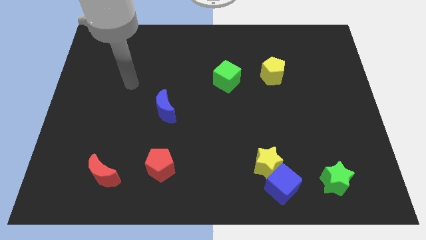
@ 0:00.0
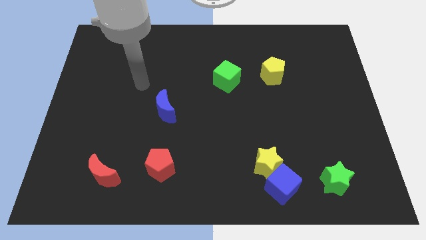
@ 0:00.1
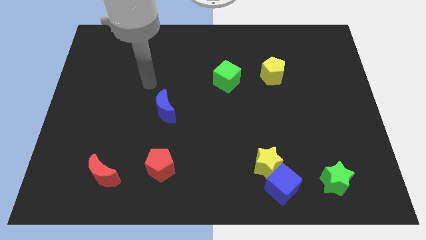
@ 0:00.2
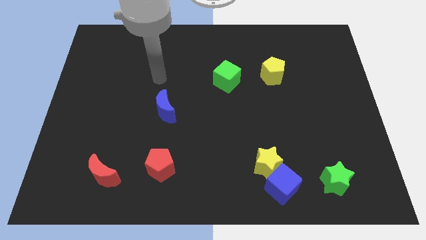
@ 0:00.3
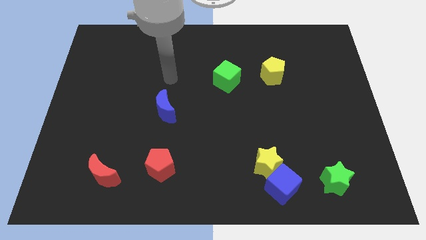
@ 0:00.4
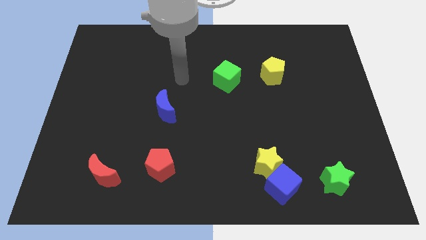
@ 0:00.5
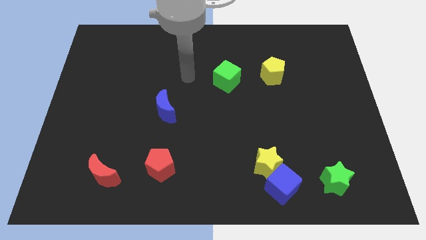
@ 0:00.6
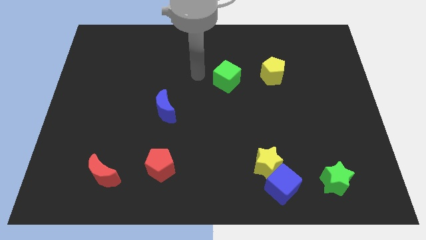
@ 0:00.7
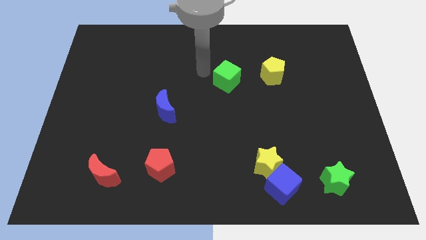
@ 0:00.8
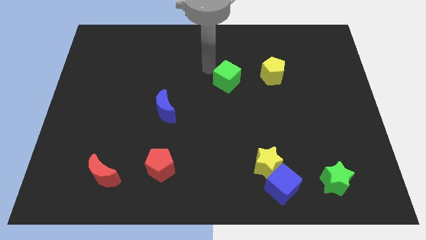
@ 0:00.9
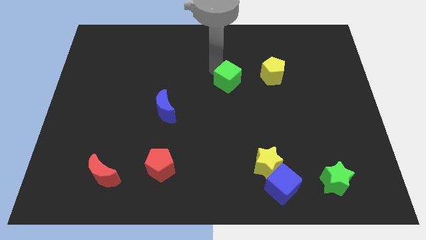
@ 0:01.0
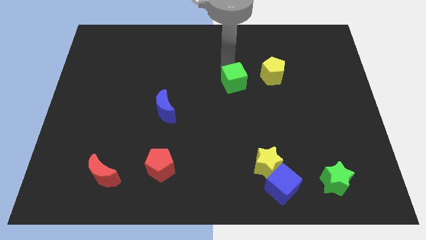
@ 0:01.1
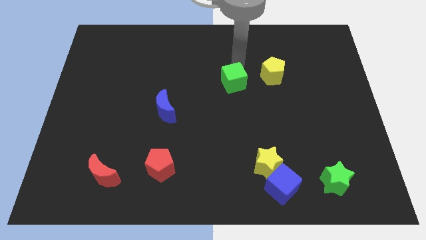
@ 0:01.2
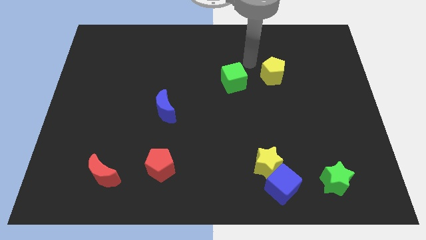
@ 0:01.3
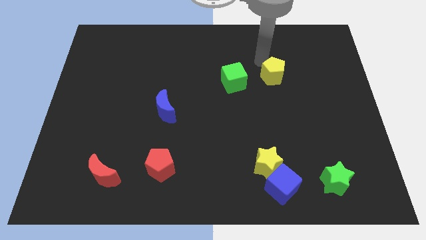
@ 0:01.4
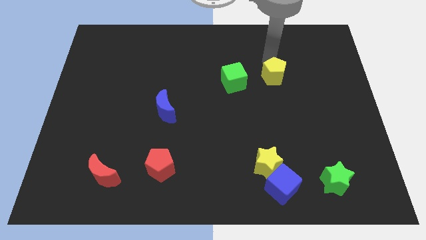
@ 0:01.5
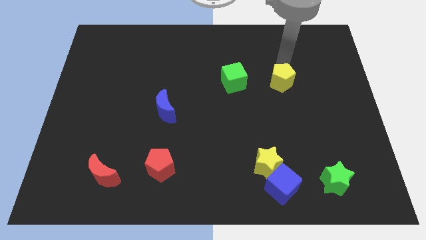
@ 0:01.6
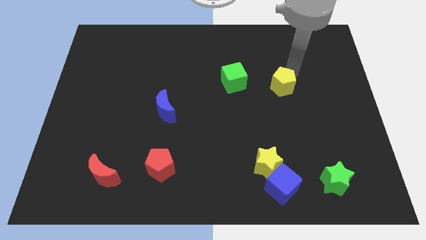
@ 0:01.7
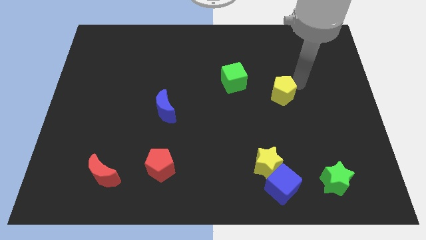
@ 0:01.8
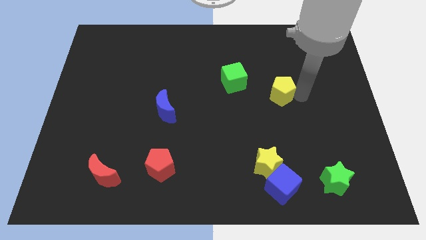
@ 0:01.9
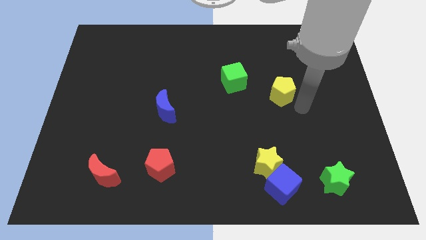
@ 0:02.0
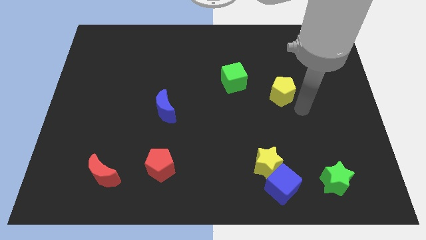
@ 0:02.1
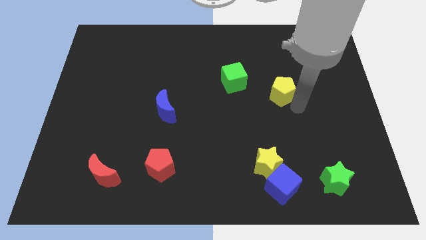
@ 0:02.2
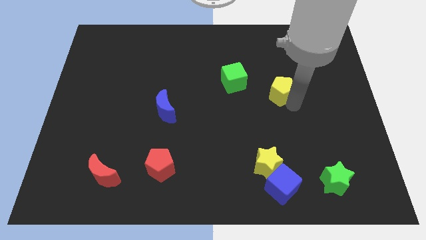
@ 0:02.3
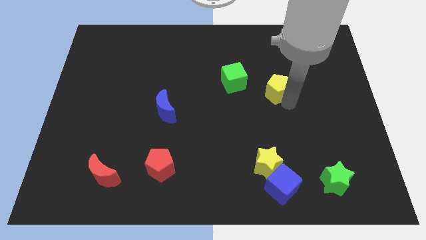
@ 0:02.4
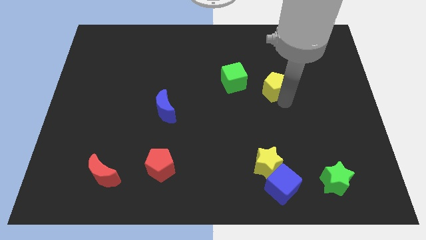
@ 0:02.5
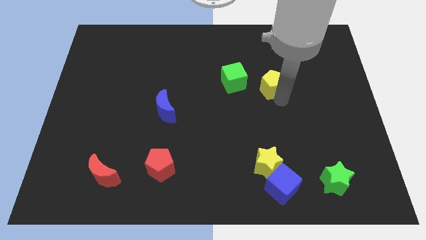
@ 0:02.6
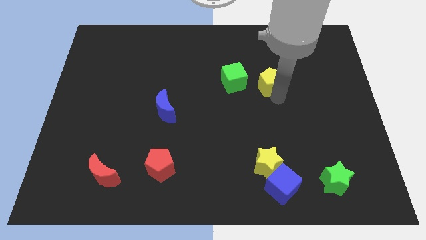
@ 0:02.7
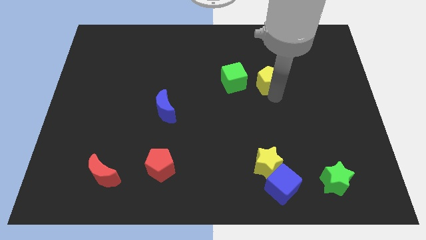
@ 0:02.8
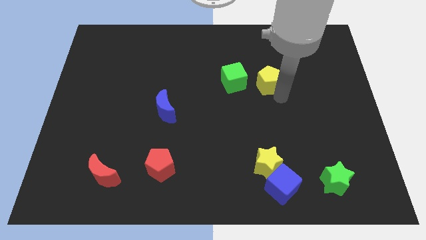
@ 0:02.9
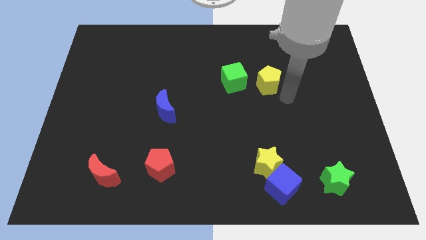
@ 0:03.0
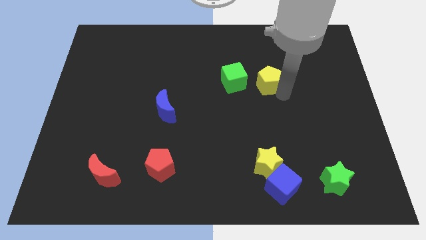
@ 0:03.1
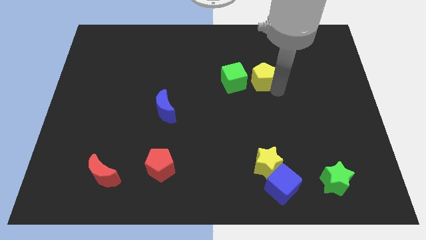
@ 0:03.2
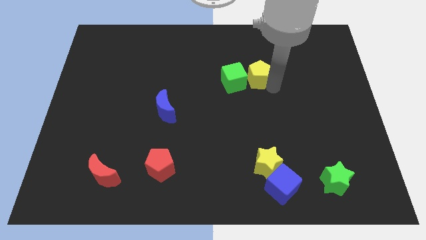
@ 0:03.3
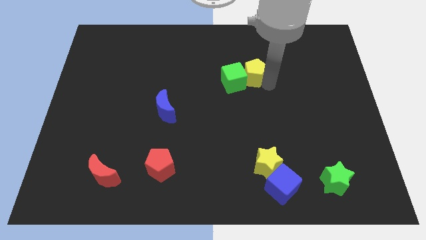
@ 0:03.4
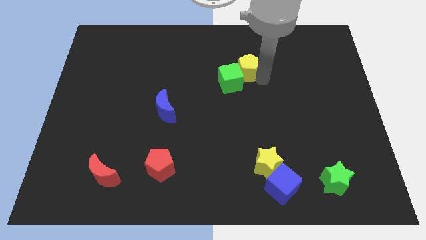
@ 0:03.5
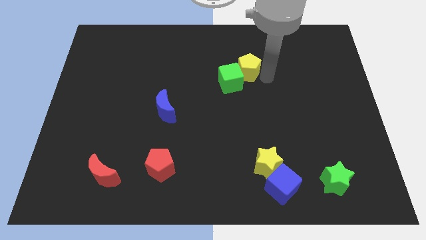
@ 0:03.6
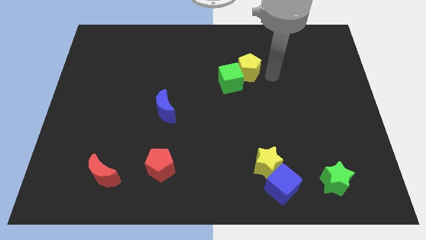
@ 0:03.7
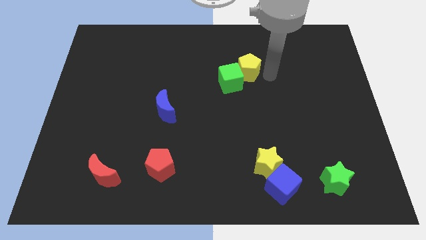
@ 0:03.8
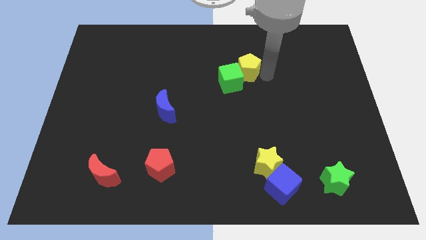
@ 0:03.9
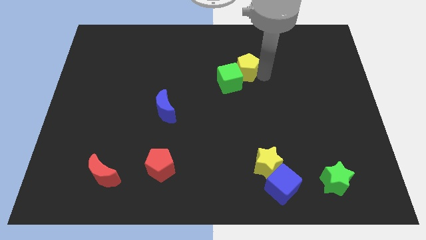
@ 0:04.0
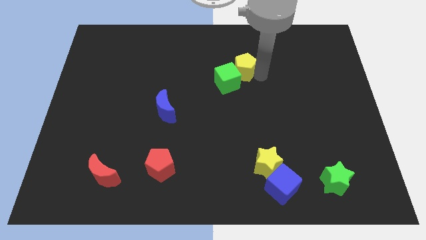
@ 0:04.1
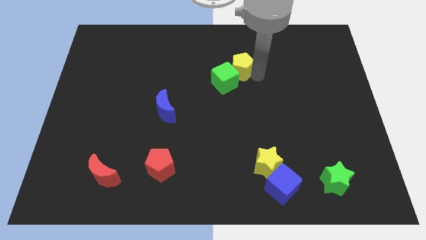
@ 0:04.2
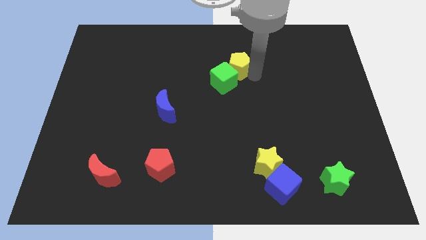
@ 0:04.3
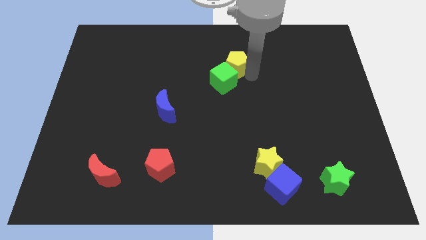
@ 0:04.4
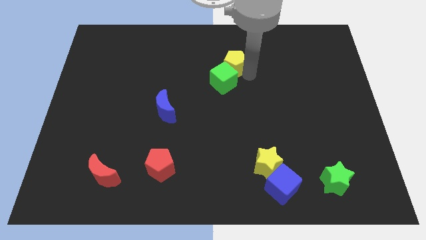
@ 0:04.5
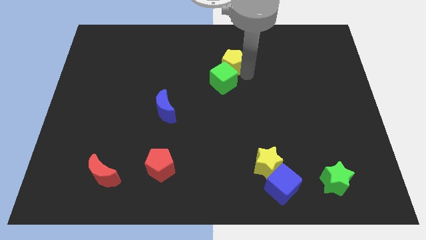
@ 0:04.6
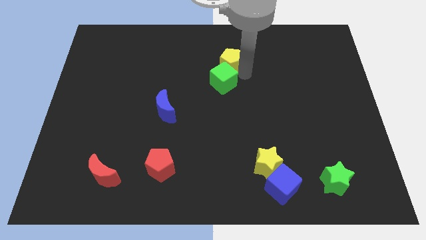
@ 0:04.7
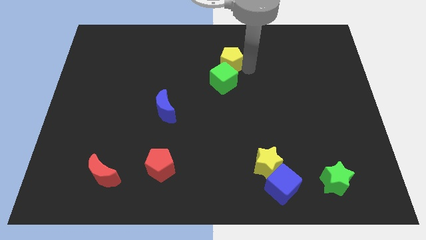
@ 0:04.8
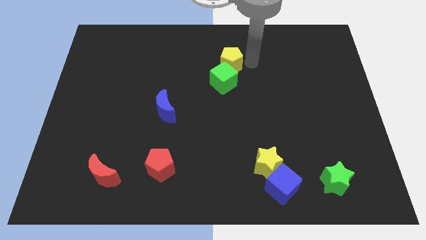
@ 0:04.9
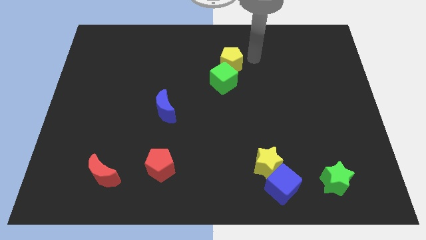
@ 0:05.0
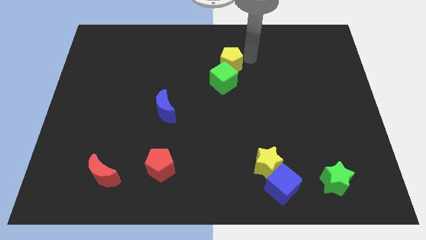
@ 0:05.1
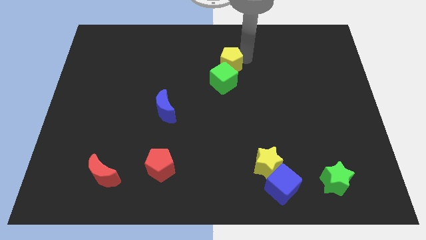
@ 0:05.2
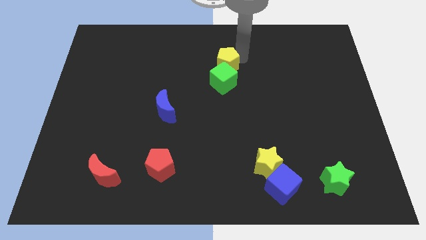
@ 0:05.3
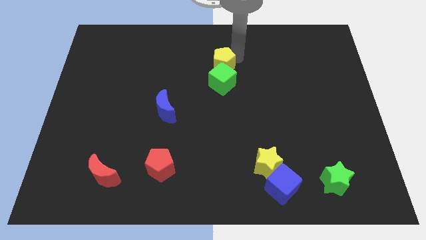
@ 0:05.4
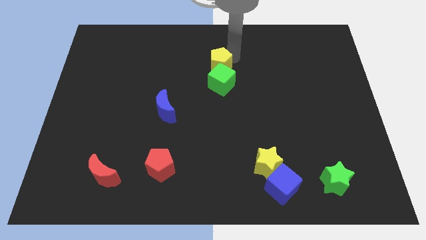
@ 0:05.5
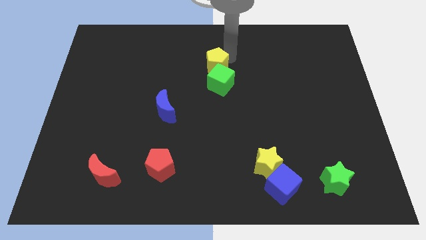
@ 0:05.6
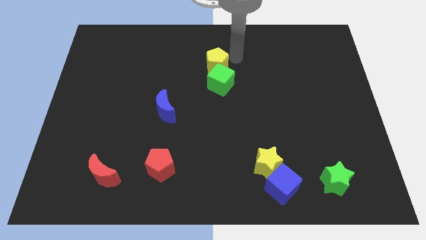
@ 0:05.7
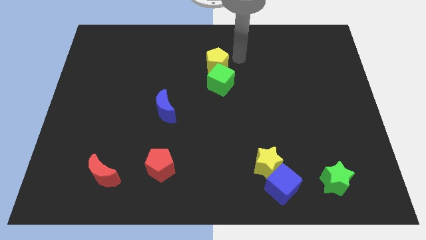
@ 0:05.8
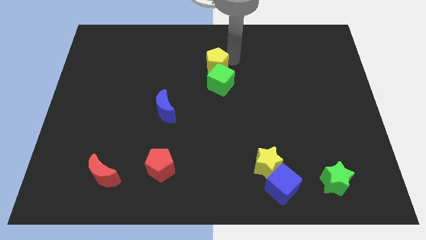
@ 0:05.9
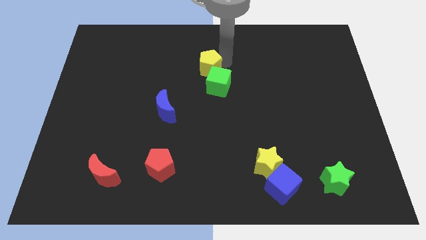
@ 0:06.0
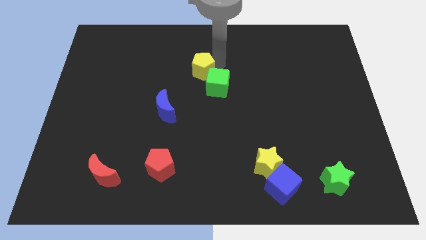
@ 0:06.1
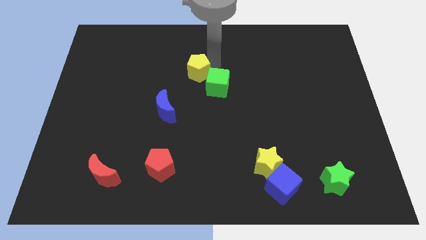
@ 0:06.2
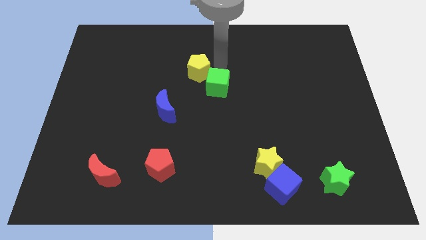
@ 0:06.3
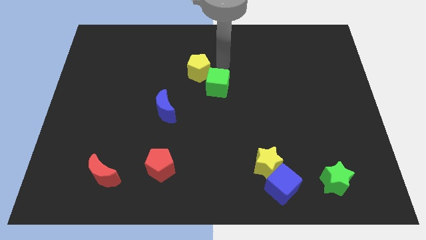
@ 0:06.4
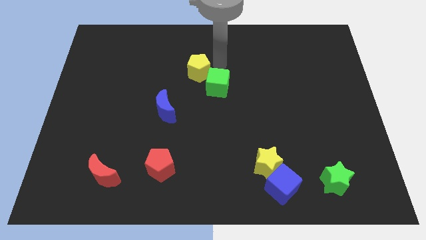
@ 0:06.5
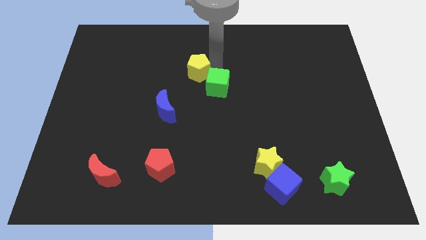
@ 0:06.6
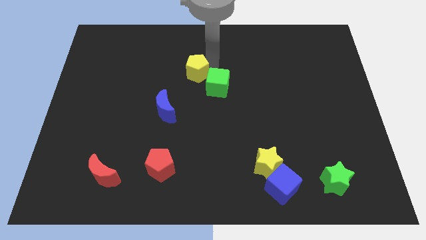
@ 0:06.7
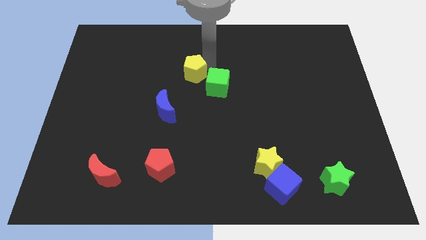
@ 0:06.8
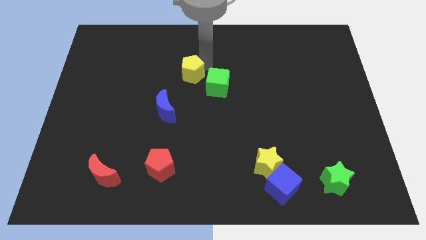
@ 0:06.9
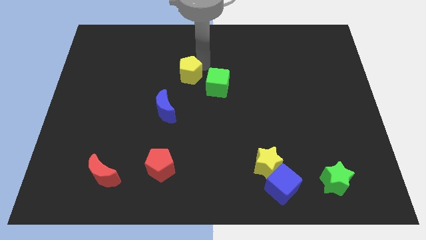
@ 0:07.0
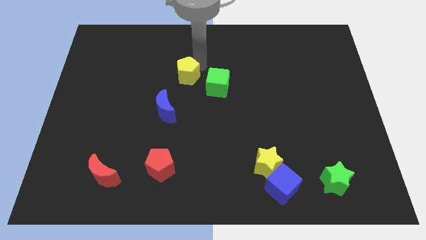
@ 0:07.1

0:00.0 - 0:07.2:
move the yellow pentagon to the top of the blue moon

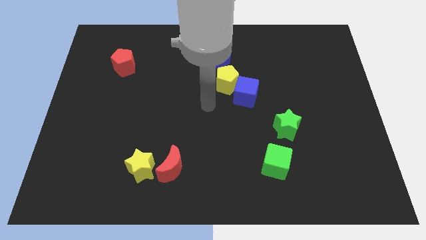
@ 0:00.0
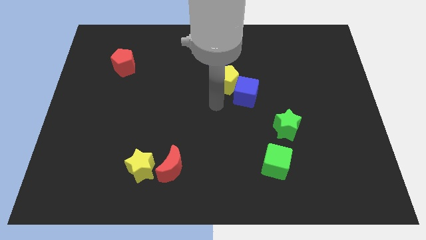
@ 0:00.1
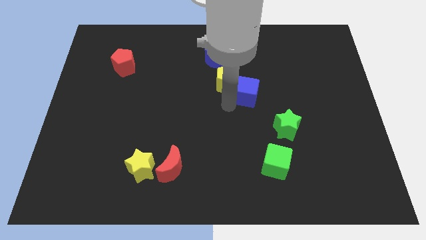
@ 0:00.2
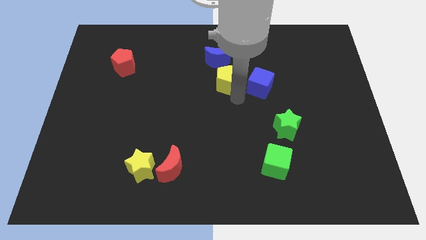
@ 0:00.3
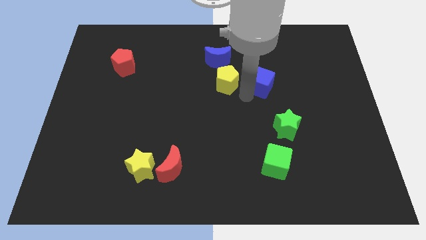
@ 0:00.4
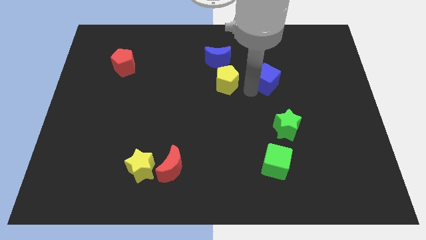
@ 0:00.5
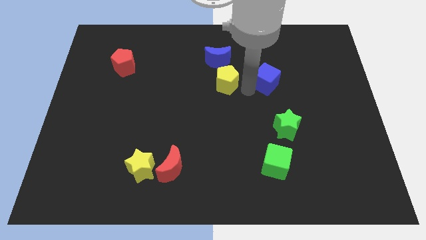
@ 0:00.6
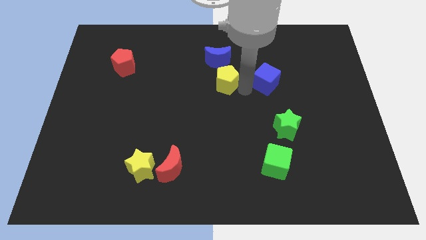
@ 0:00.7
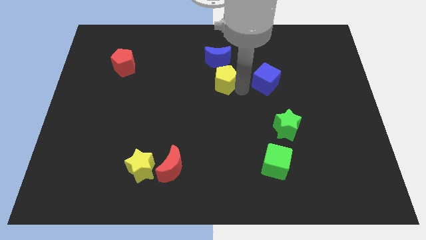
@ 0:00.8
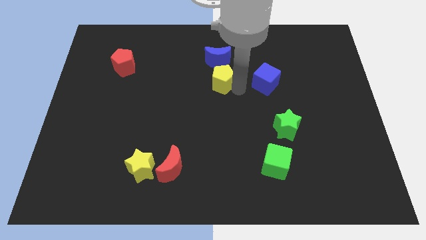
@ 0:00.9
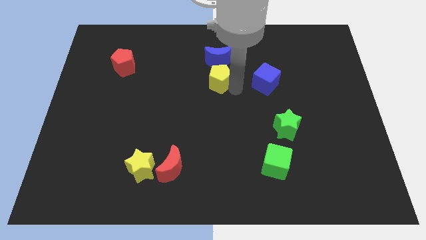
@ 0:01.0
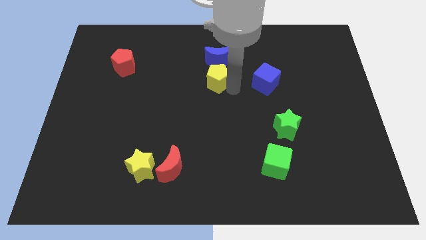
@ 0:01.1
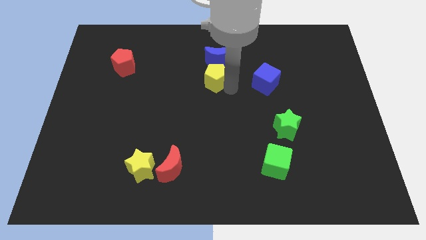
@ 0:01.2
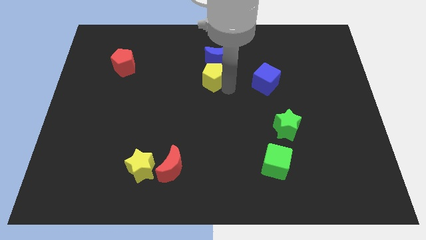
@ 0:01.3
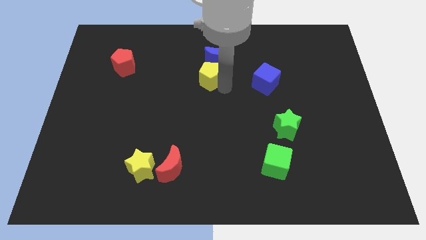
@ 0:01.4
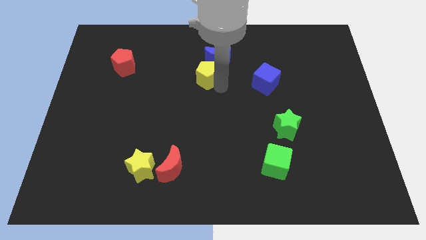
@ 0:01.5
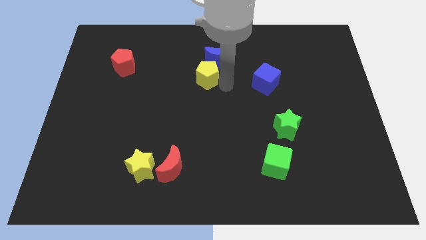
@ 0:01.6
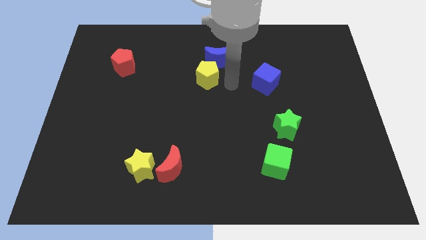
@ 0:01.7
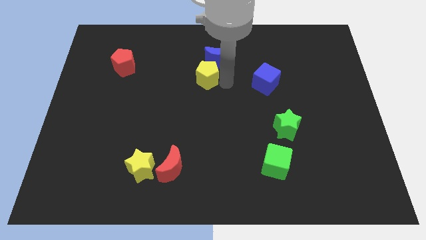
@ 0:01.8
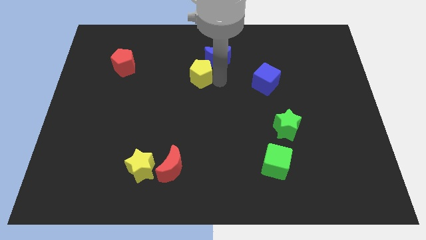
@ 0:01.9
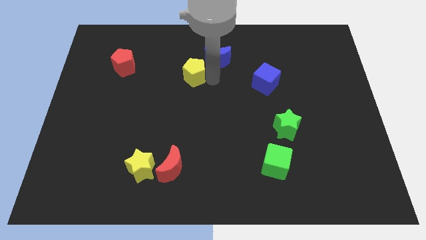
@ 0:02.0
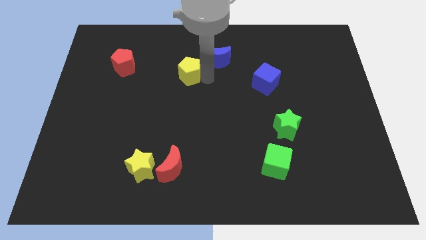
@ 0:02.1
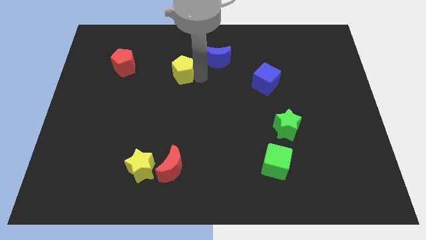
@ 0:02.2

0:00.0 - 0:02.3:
move the yellow pentagon right of the red pentagon
